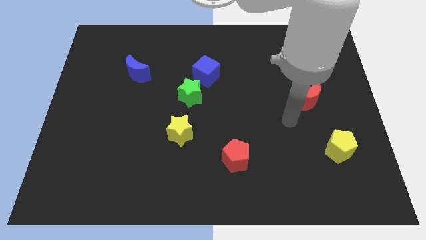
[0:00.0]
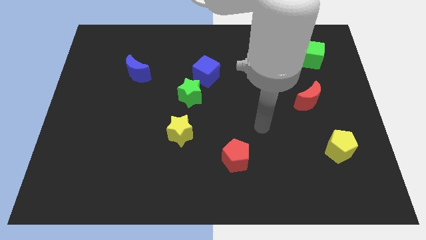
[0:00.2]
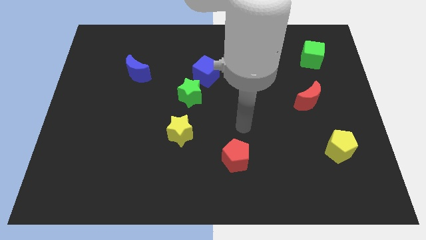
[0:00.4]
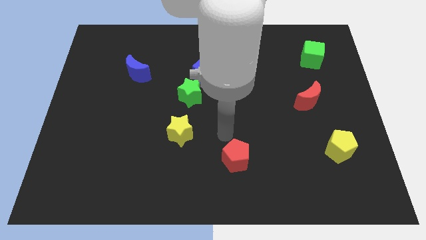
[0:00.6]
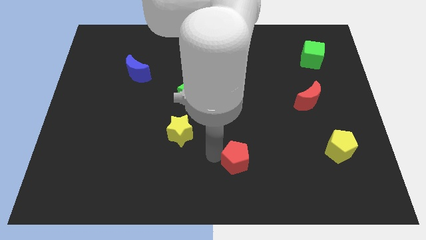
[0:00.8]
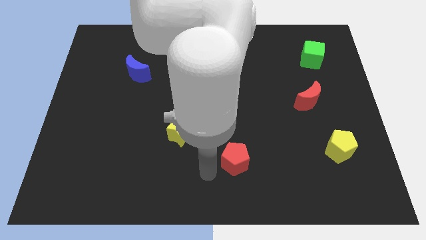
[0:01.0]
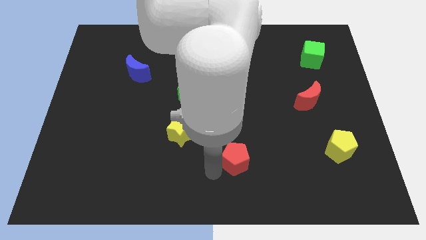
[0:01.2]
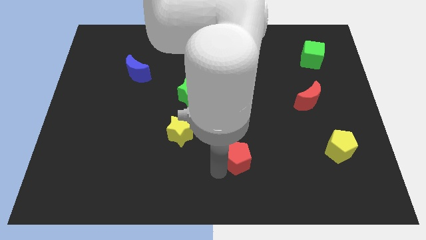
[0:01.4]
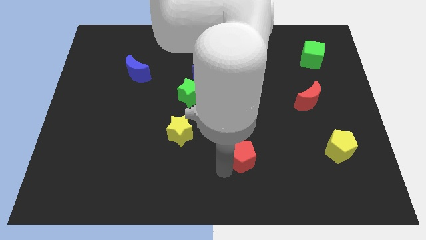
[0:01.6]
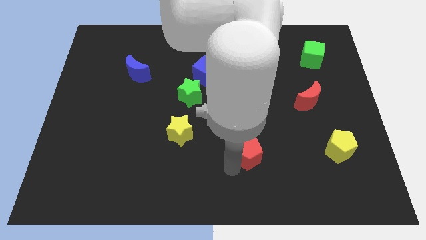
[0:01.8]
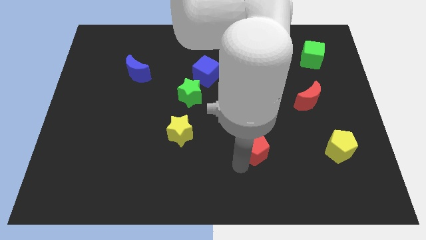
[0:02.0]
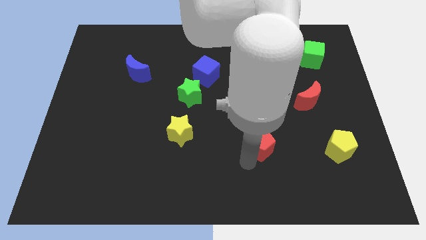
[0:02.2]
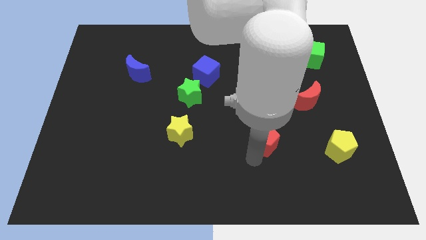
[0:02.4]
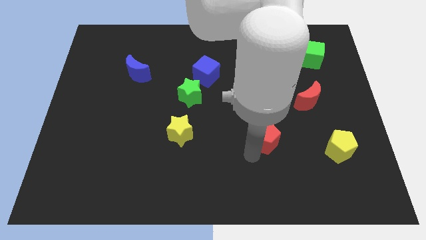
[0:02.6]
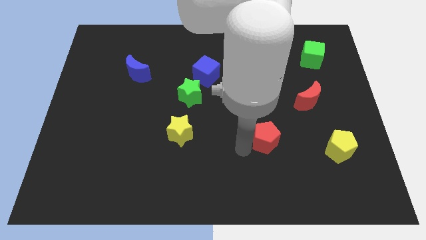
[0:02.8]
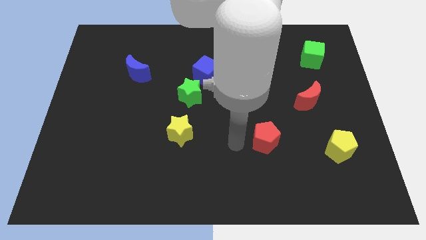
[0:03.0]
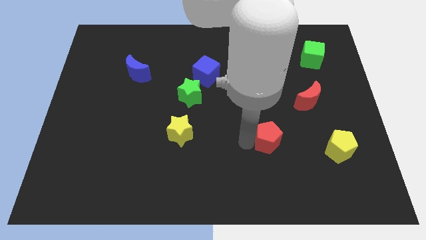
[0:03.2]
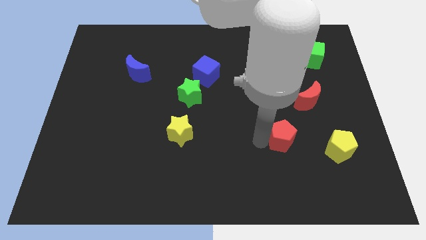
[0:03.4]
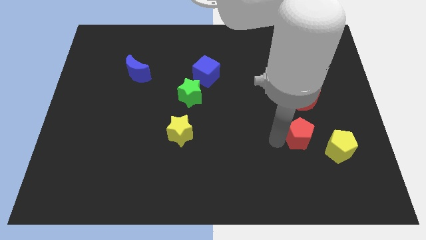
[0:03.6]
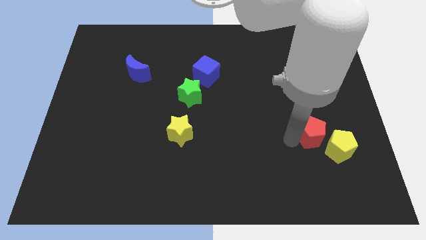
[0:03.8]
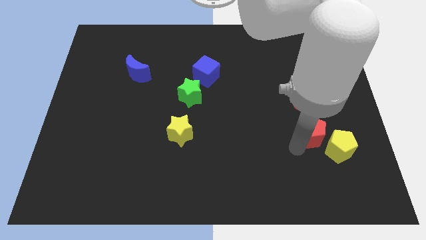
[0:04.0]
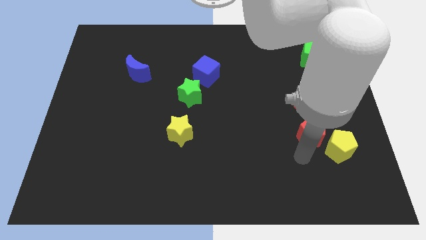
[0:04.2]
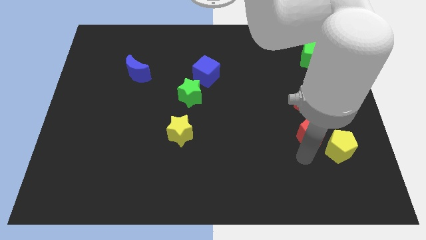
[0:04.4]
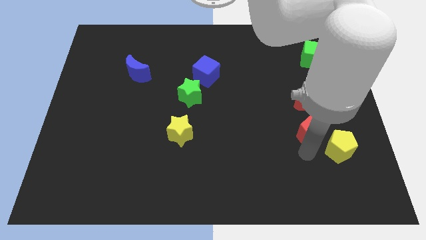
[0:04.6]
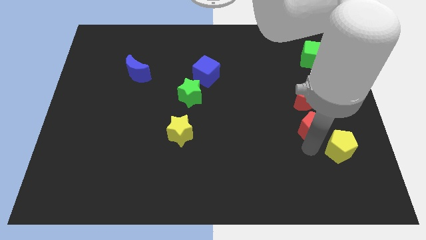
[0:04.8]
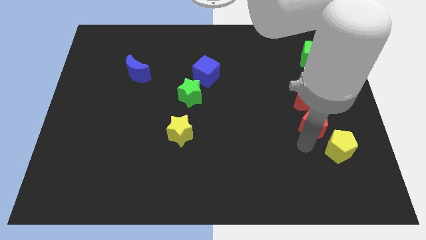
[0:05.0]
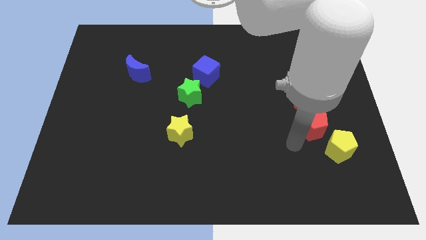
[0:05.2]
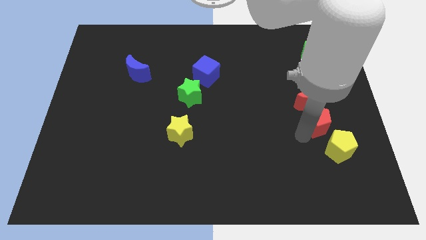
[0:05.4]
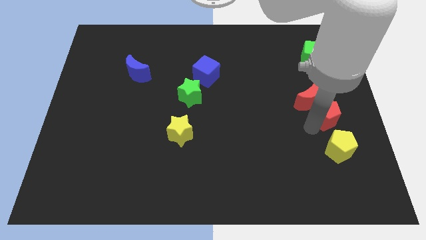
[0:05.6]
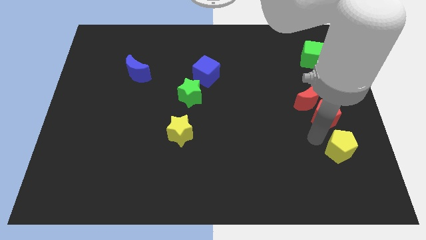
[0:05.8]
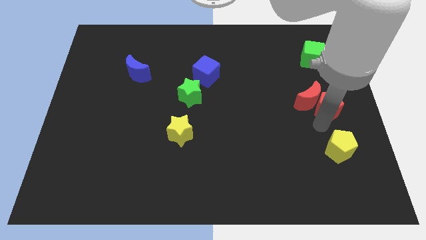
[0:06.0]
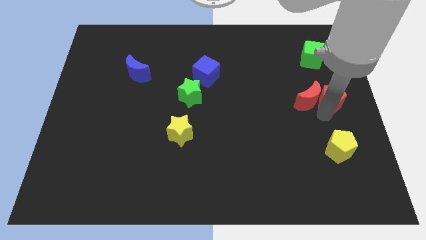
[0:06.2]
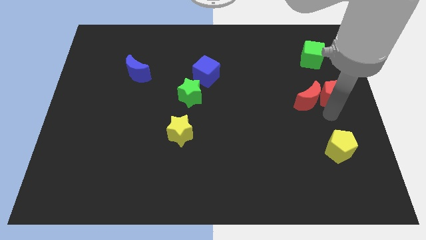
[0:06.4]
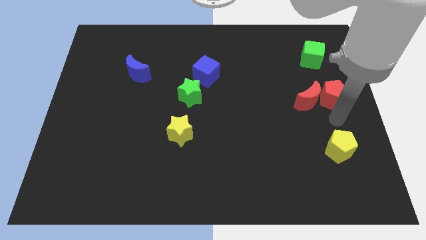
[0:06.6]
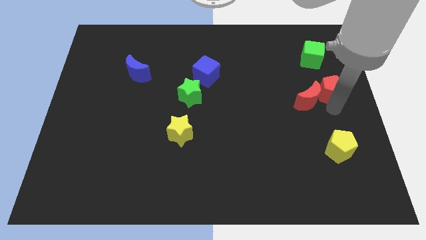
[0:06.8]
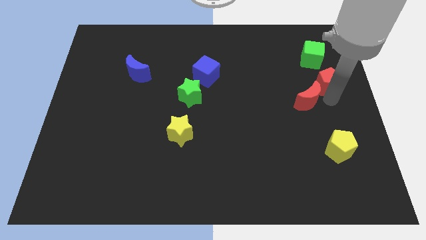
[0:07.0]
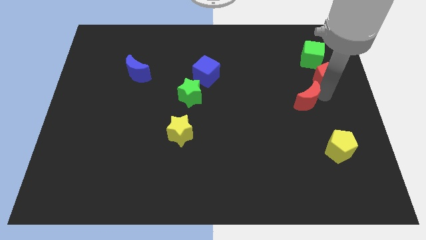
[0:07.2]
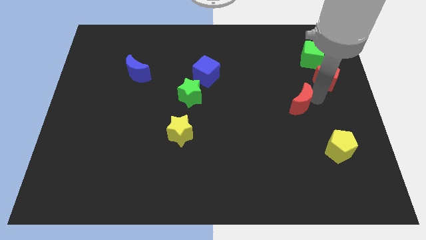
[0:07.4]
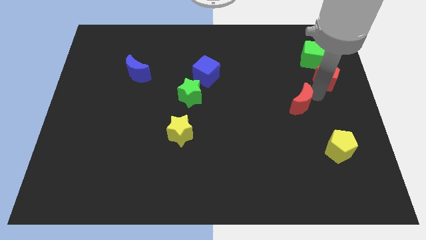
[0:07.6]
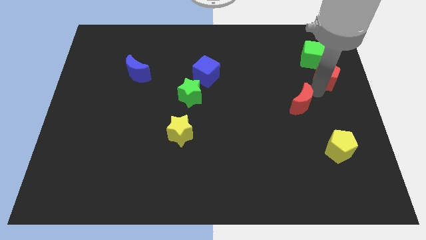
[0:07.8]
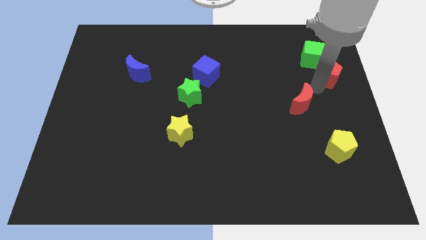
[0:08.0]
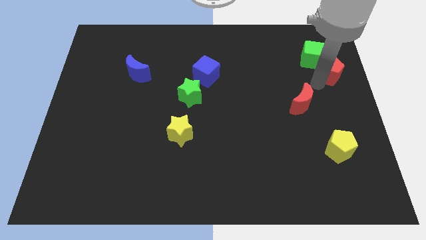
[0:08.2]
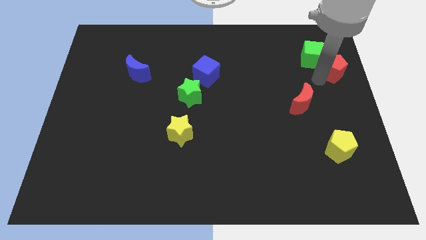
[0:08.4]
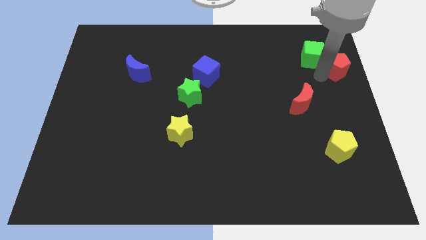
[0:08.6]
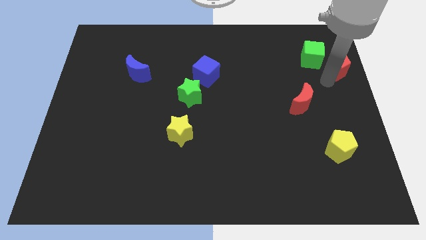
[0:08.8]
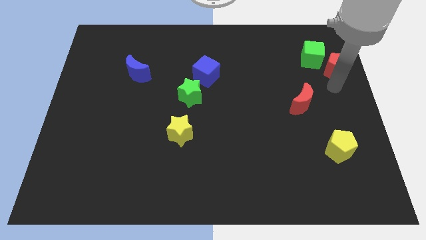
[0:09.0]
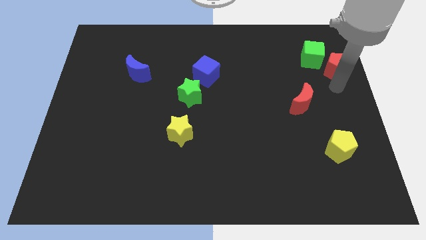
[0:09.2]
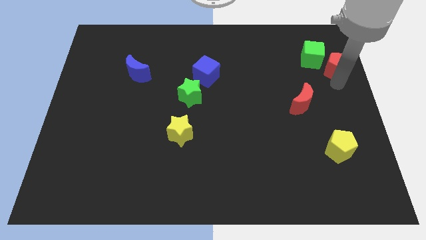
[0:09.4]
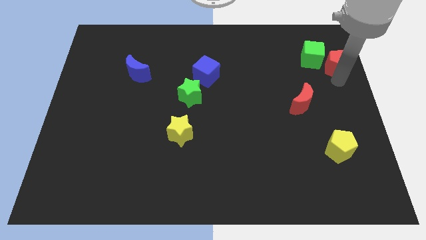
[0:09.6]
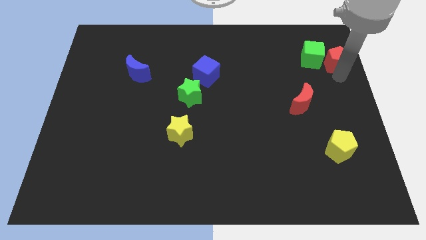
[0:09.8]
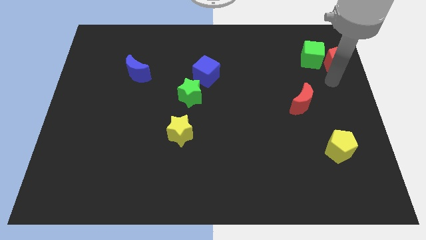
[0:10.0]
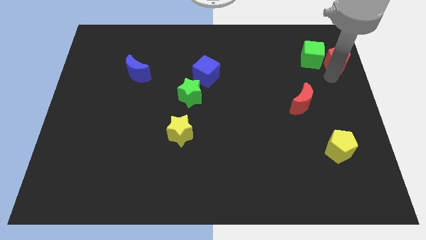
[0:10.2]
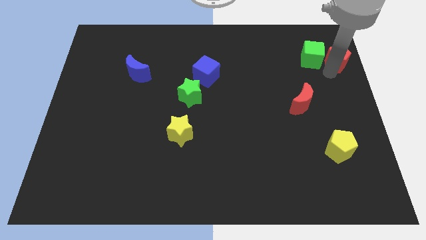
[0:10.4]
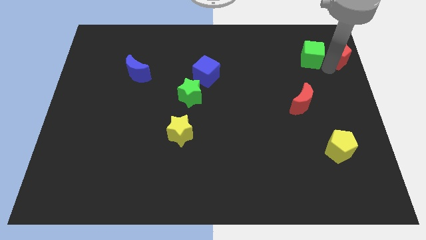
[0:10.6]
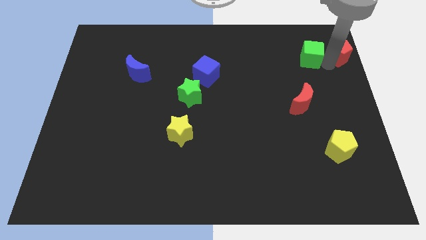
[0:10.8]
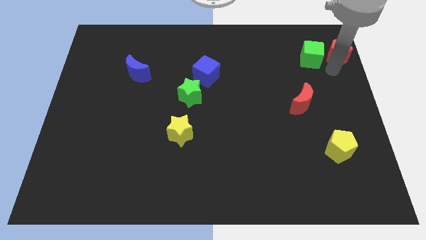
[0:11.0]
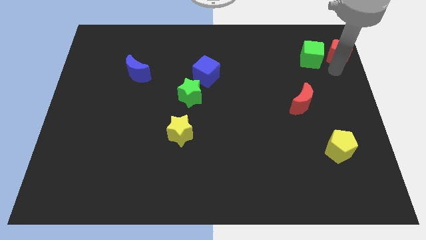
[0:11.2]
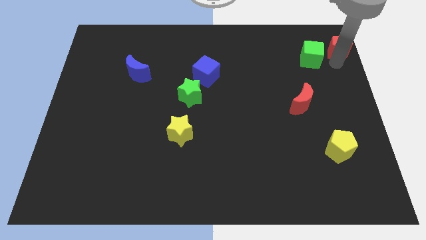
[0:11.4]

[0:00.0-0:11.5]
put the red pentagon to the top right of the board

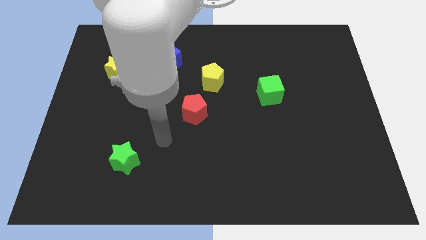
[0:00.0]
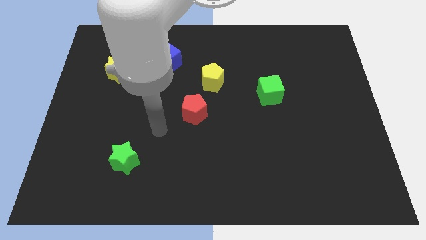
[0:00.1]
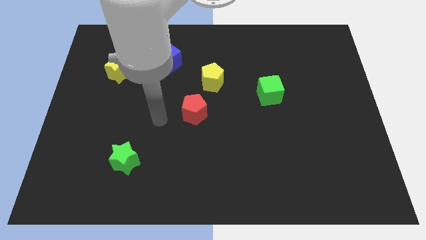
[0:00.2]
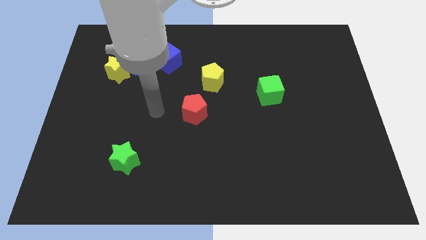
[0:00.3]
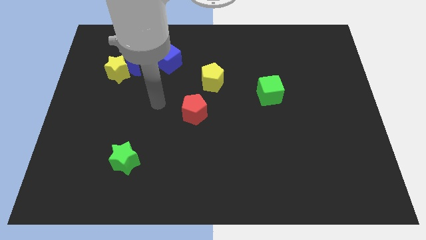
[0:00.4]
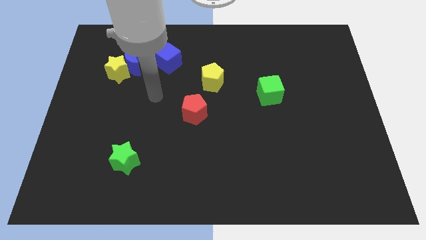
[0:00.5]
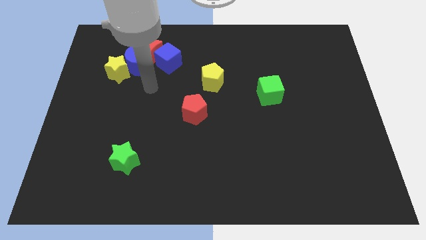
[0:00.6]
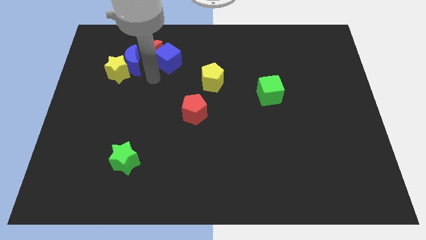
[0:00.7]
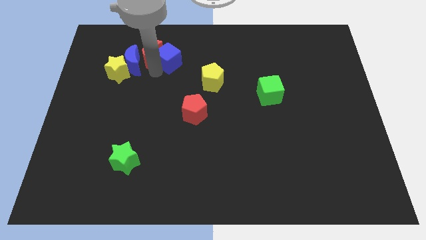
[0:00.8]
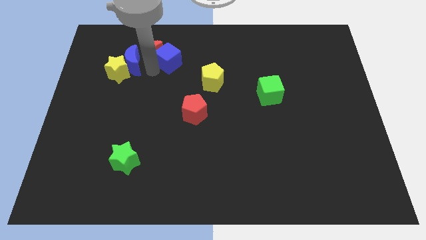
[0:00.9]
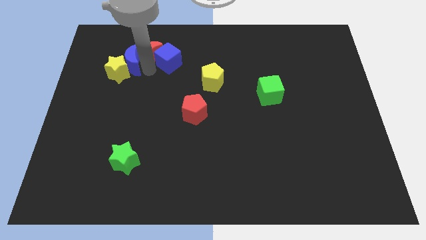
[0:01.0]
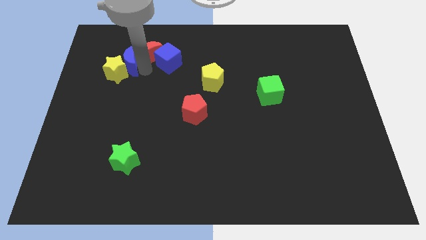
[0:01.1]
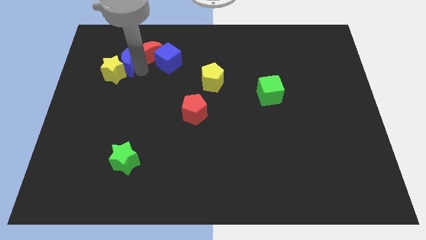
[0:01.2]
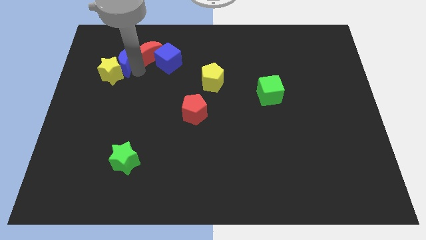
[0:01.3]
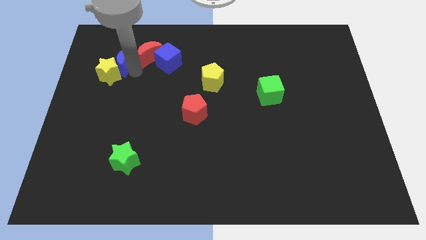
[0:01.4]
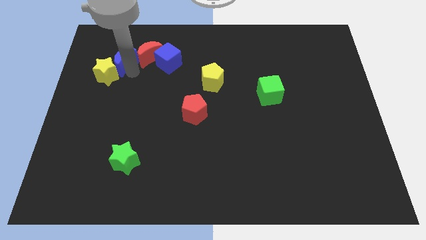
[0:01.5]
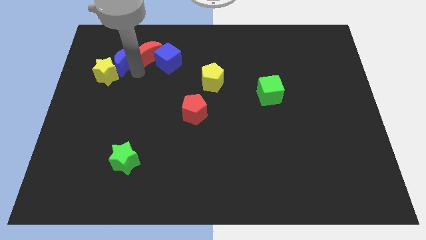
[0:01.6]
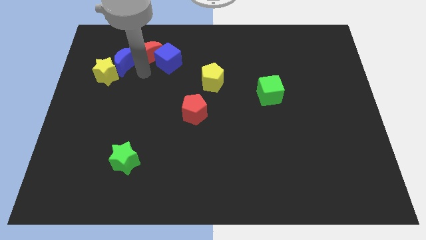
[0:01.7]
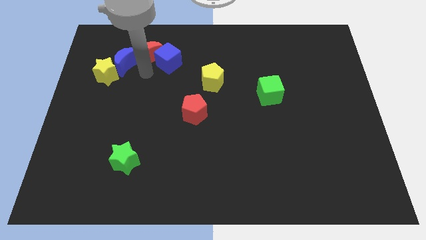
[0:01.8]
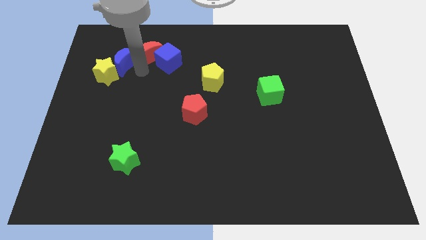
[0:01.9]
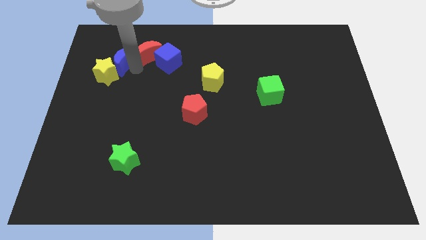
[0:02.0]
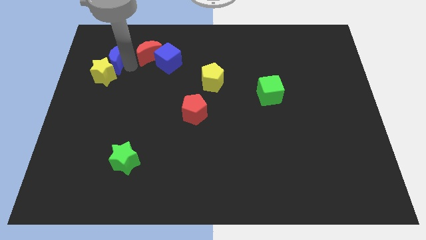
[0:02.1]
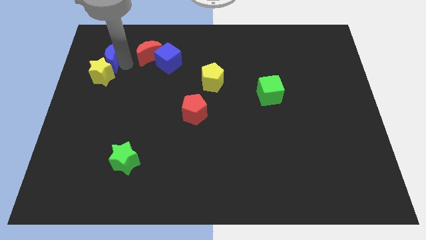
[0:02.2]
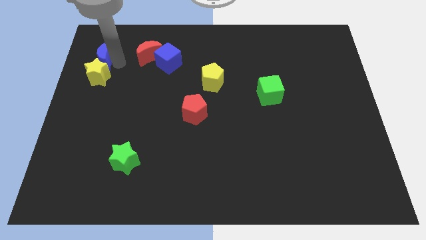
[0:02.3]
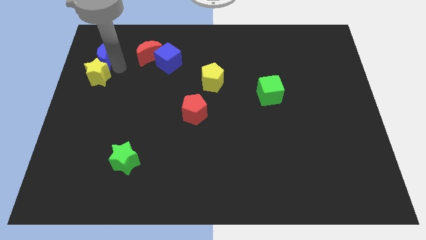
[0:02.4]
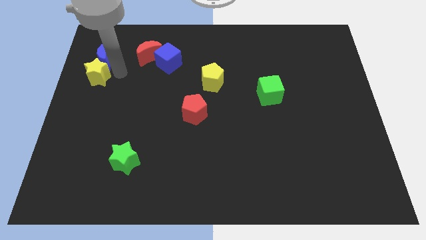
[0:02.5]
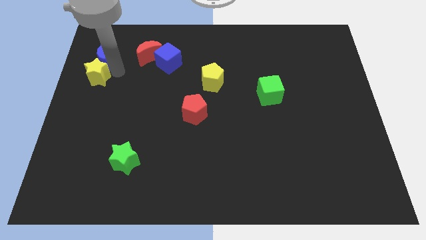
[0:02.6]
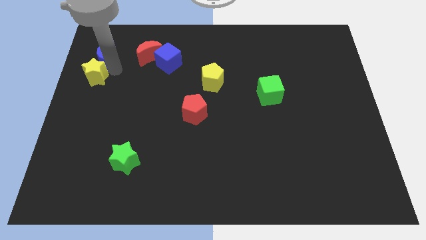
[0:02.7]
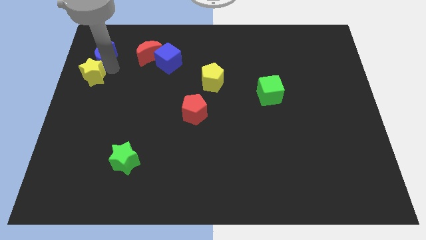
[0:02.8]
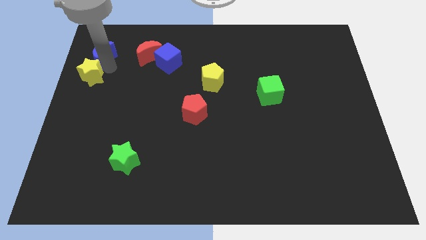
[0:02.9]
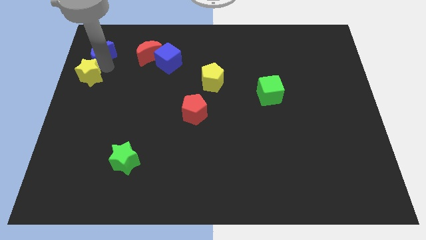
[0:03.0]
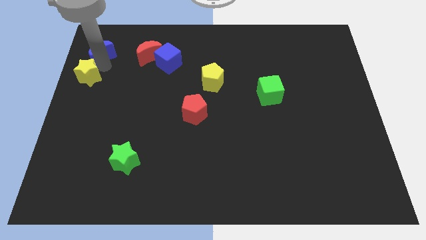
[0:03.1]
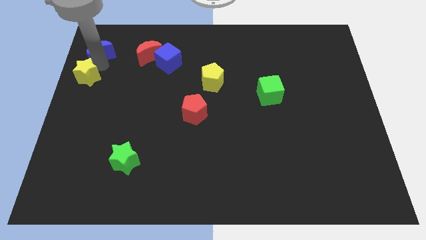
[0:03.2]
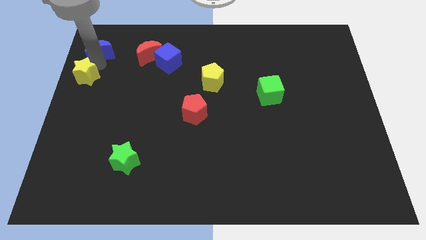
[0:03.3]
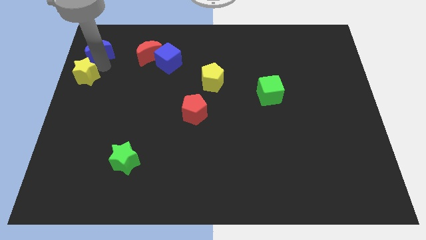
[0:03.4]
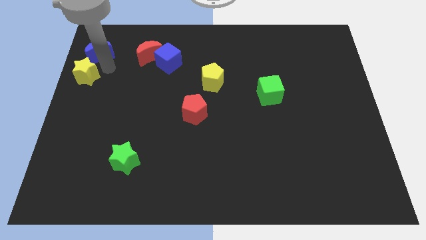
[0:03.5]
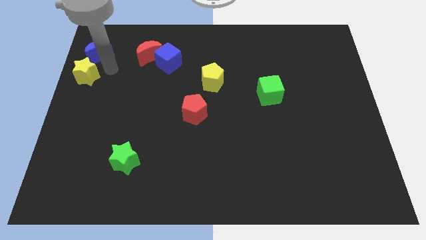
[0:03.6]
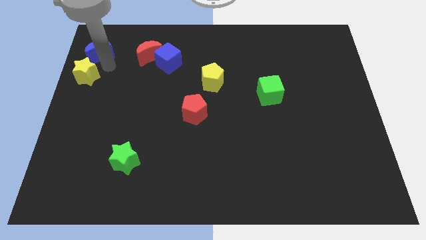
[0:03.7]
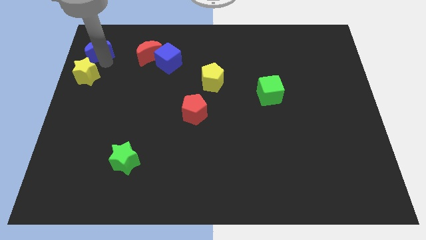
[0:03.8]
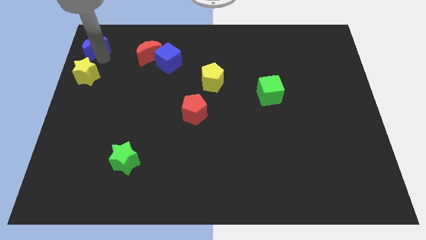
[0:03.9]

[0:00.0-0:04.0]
push the blue moon to the upper left corner
